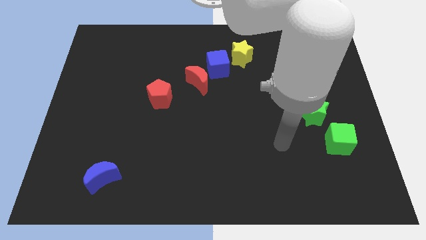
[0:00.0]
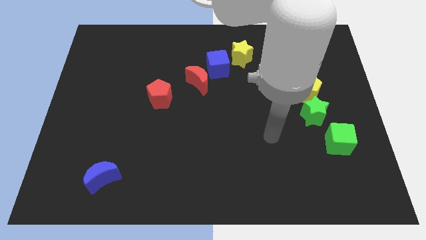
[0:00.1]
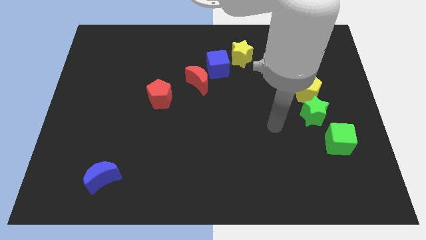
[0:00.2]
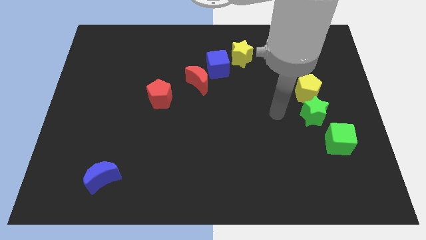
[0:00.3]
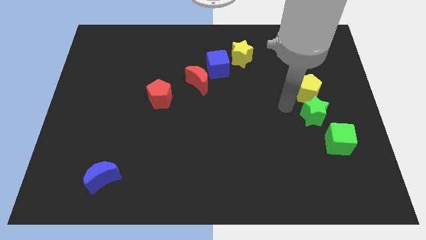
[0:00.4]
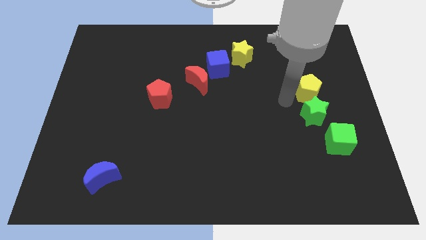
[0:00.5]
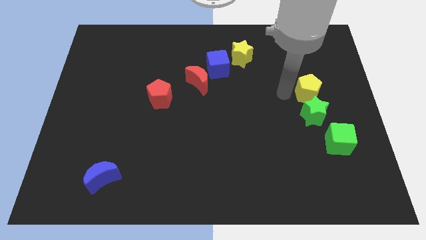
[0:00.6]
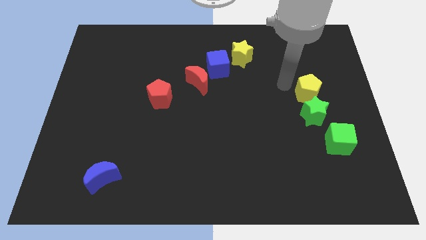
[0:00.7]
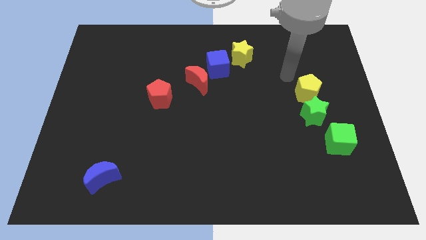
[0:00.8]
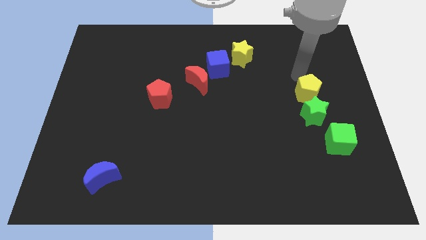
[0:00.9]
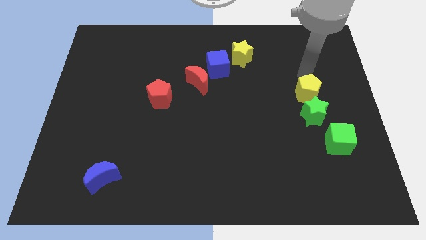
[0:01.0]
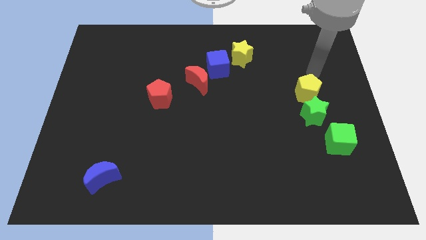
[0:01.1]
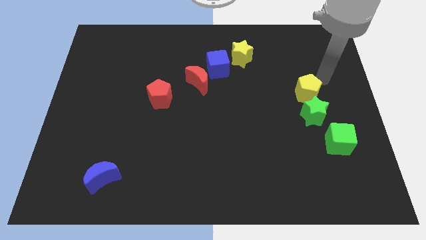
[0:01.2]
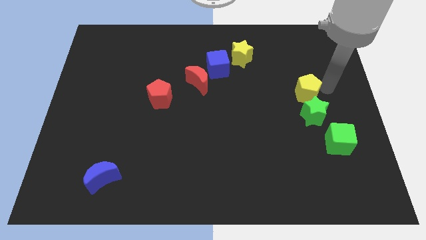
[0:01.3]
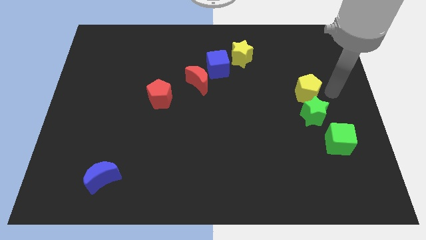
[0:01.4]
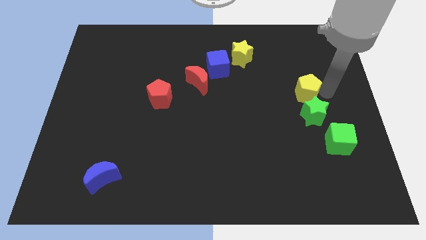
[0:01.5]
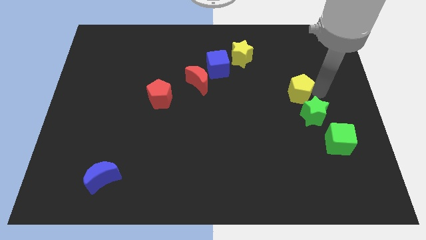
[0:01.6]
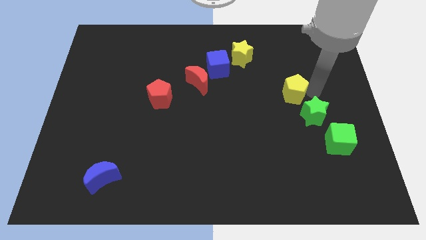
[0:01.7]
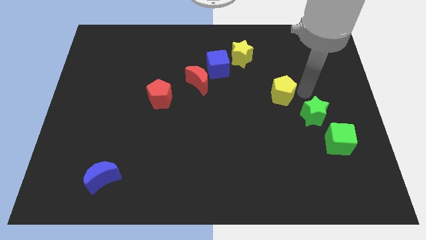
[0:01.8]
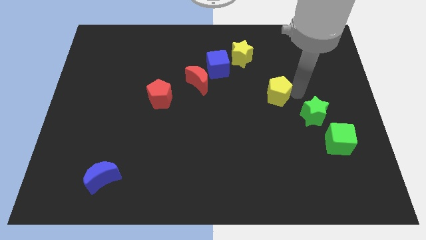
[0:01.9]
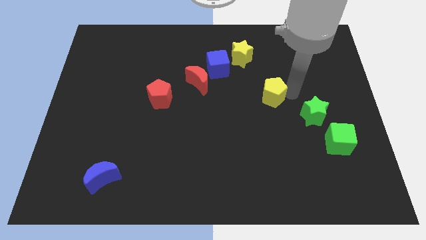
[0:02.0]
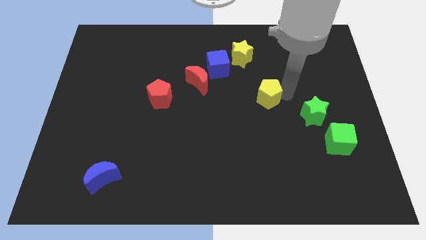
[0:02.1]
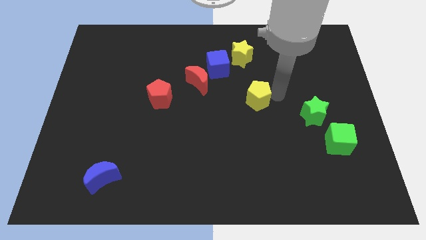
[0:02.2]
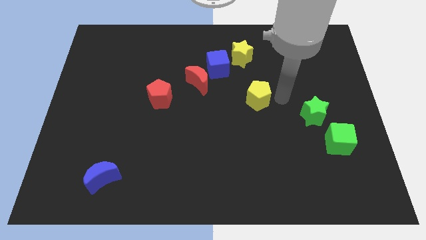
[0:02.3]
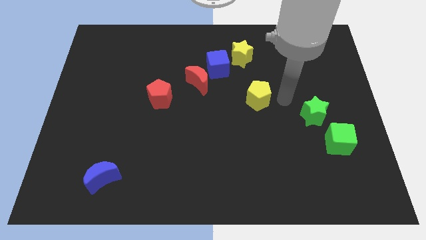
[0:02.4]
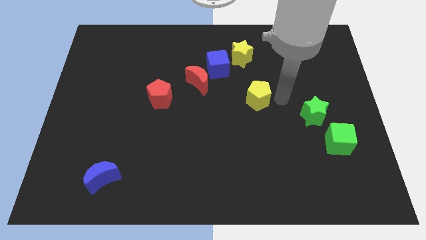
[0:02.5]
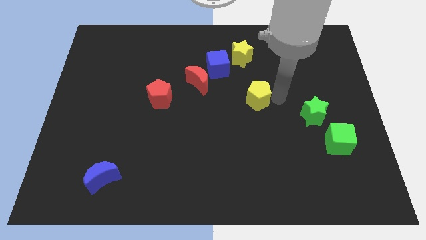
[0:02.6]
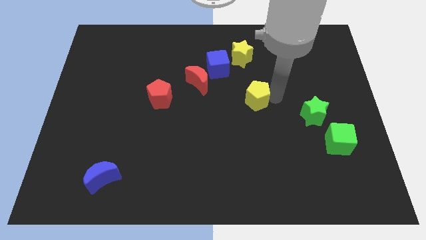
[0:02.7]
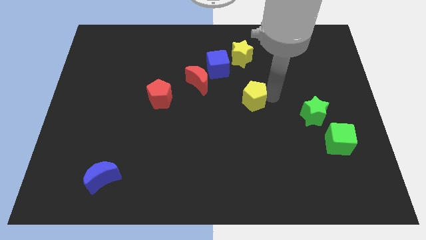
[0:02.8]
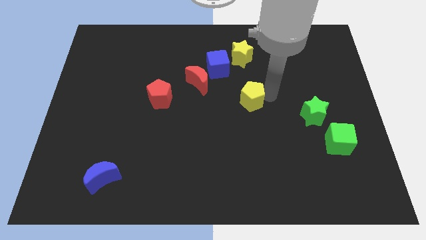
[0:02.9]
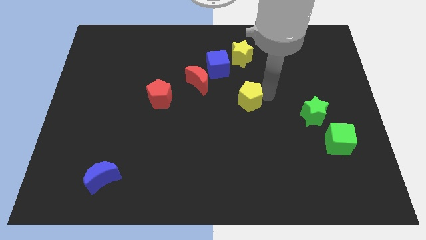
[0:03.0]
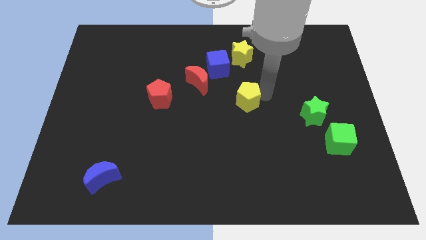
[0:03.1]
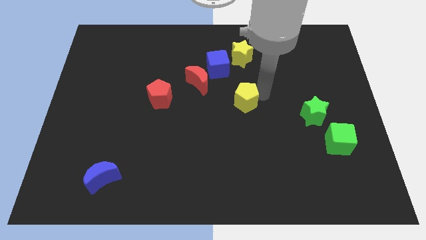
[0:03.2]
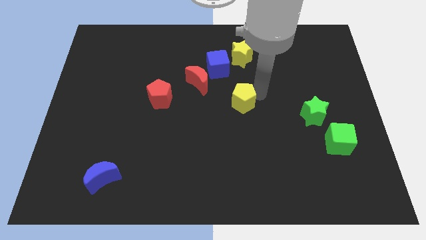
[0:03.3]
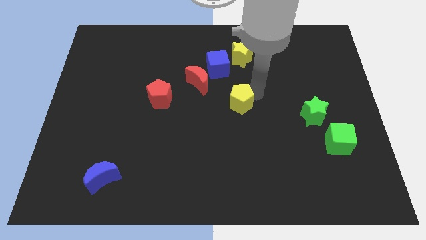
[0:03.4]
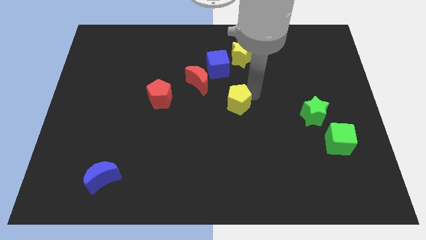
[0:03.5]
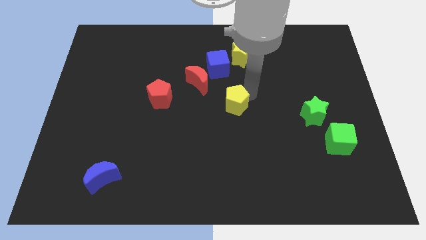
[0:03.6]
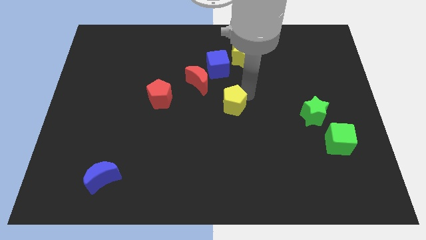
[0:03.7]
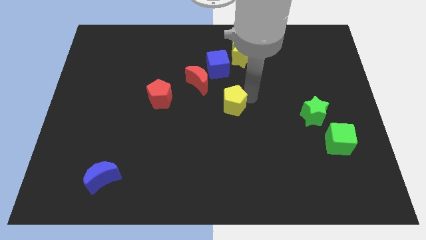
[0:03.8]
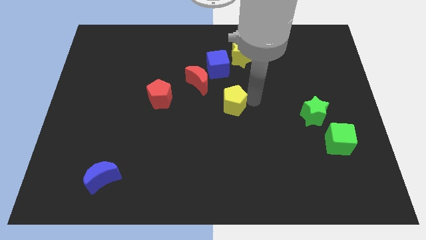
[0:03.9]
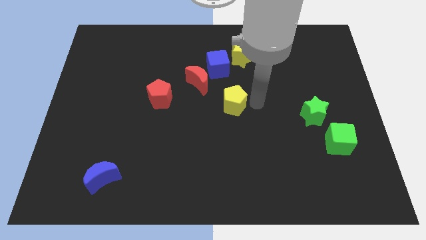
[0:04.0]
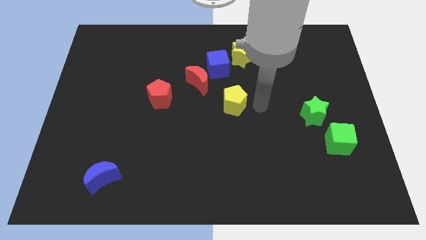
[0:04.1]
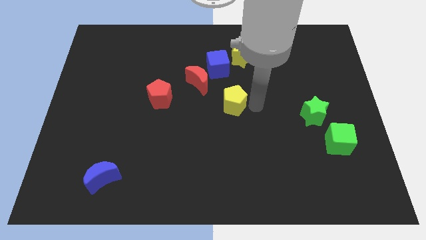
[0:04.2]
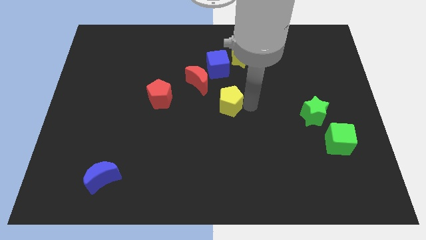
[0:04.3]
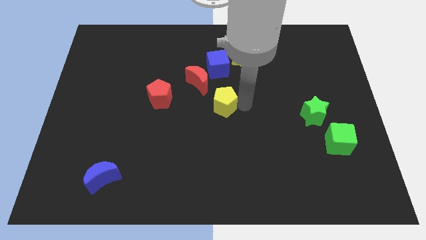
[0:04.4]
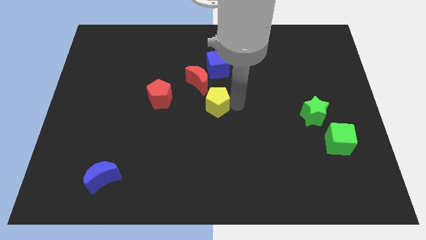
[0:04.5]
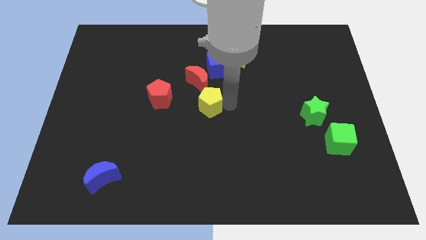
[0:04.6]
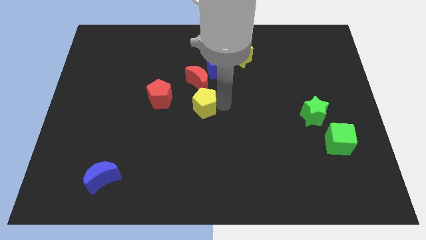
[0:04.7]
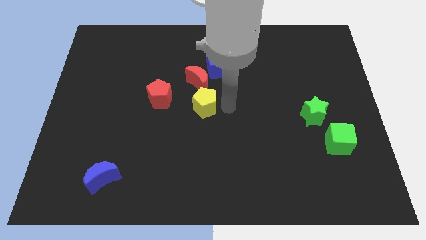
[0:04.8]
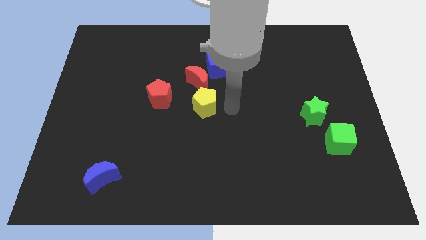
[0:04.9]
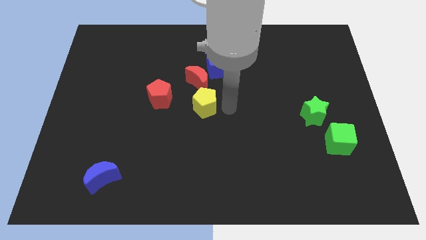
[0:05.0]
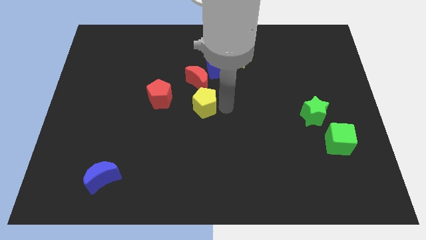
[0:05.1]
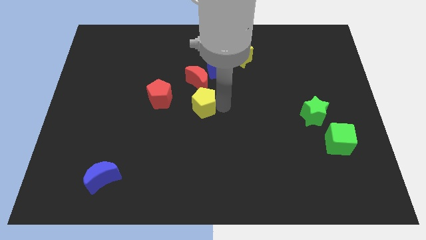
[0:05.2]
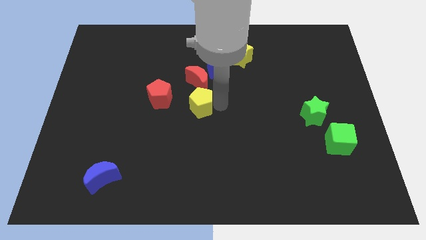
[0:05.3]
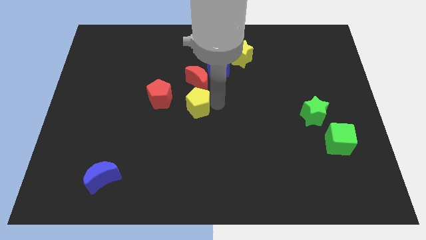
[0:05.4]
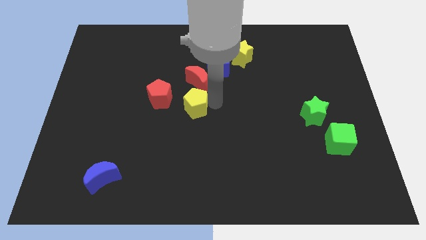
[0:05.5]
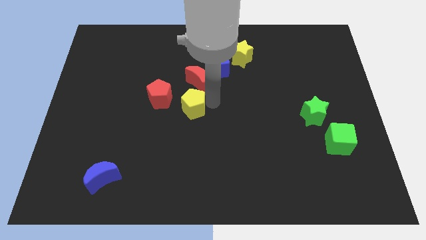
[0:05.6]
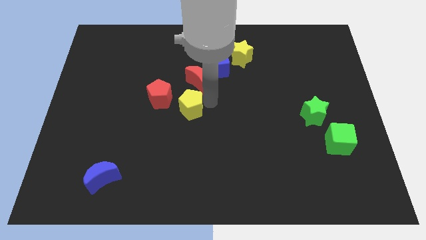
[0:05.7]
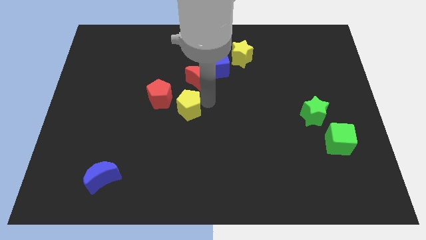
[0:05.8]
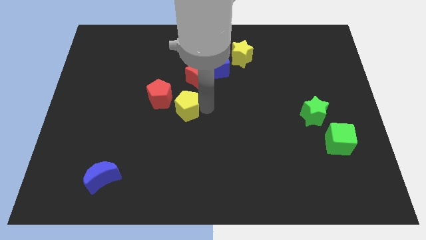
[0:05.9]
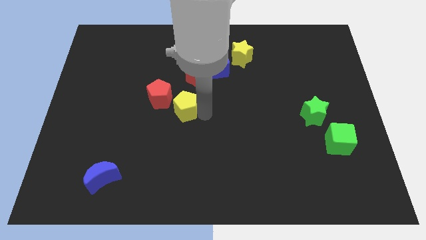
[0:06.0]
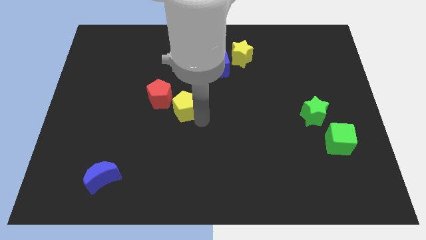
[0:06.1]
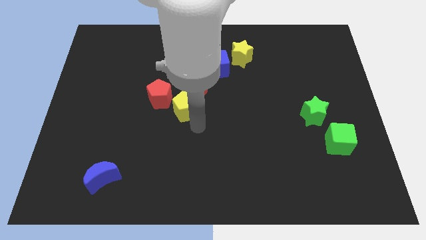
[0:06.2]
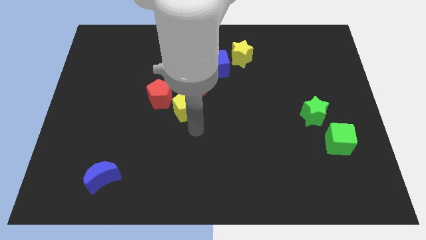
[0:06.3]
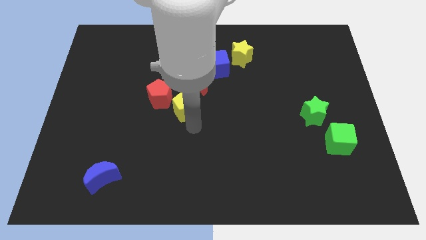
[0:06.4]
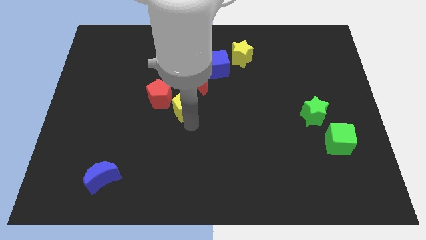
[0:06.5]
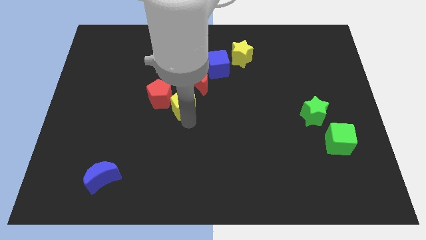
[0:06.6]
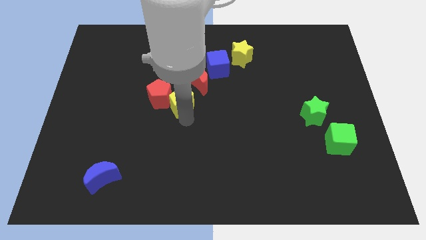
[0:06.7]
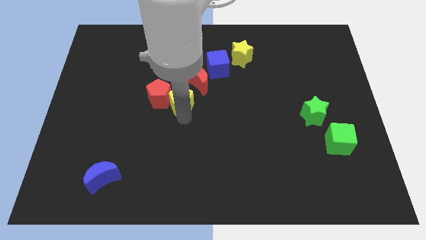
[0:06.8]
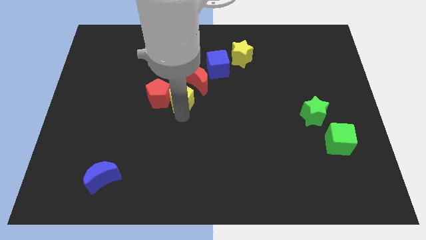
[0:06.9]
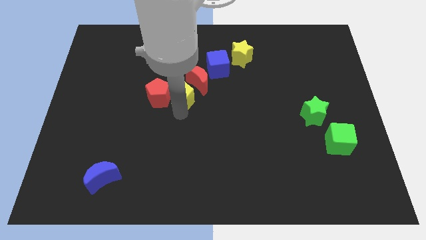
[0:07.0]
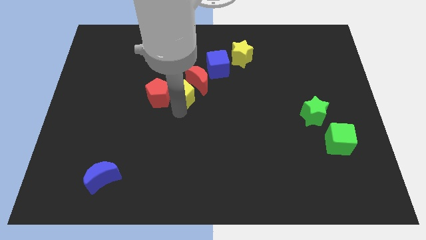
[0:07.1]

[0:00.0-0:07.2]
slide the yellow pentagon to the left side of the red moon
